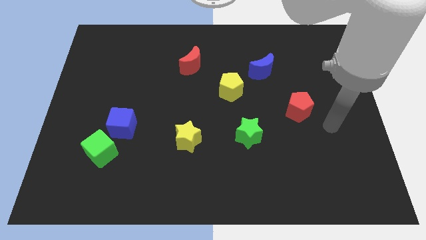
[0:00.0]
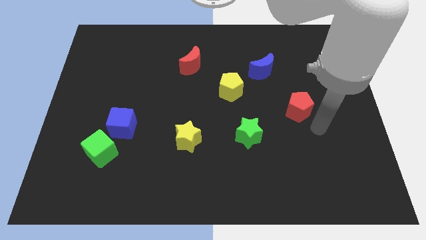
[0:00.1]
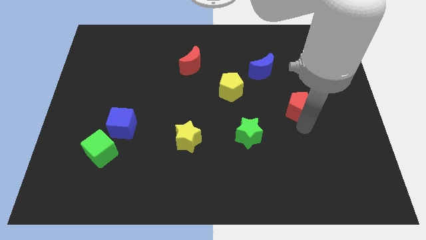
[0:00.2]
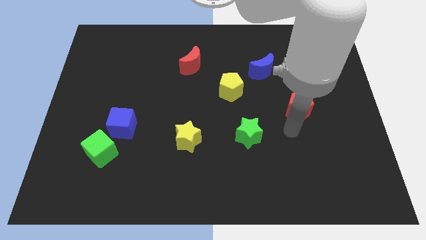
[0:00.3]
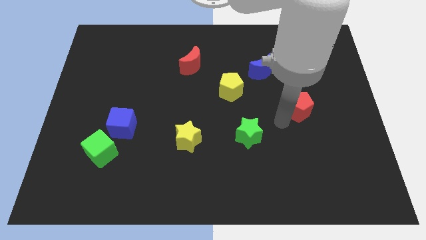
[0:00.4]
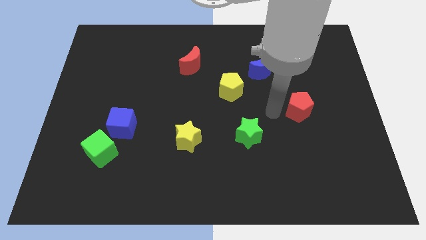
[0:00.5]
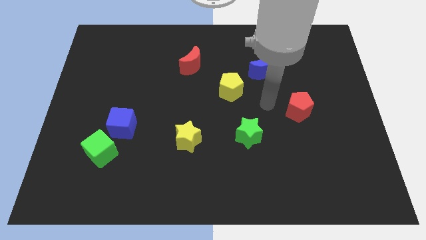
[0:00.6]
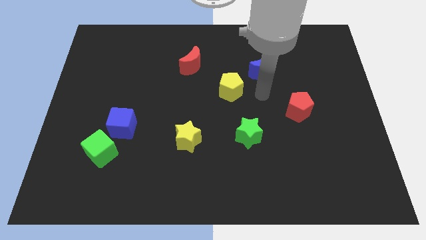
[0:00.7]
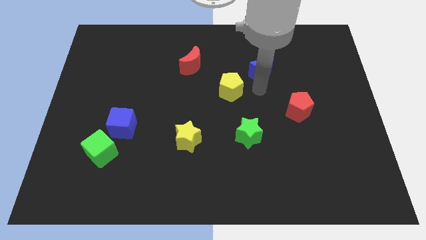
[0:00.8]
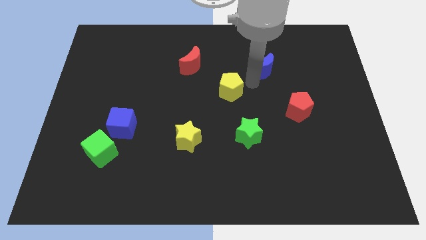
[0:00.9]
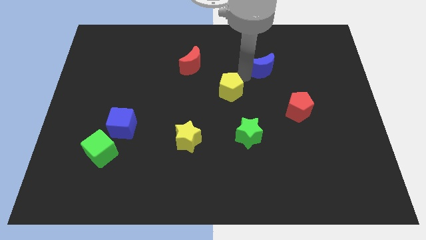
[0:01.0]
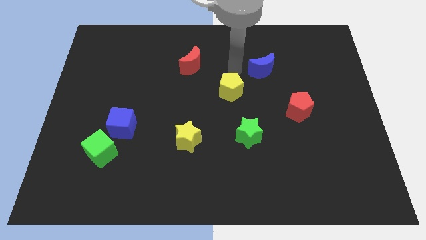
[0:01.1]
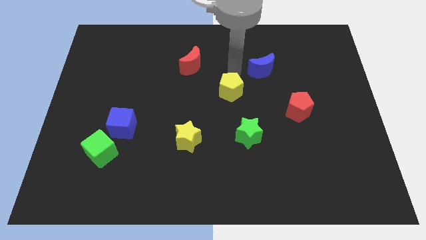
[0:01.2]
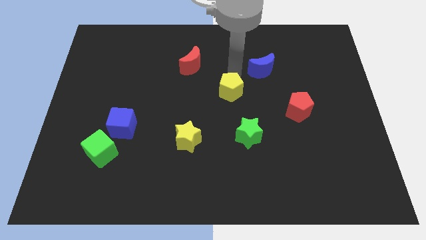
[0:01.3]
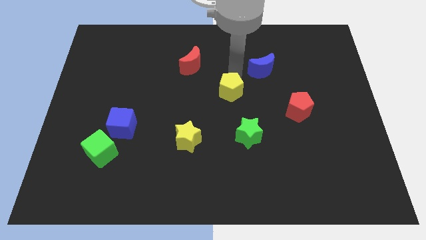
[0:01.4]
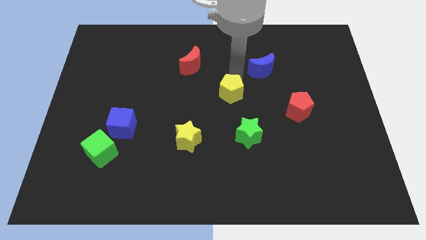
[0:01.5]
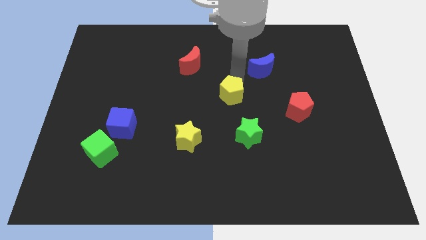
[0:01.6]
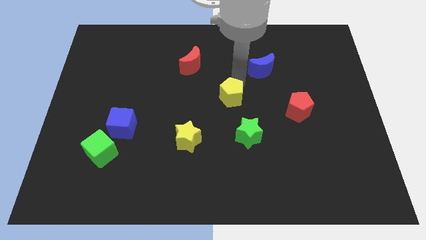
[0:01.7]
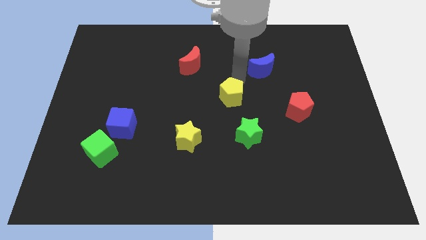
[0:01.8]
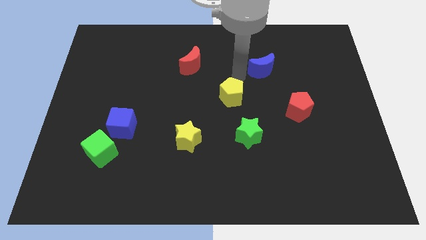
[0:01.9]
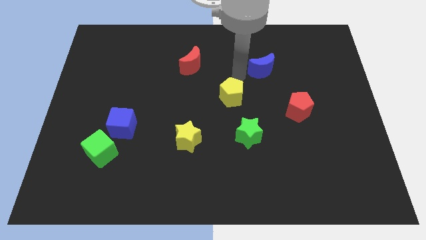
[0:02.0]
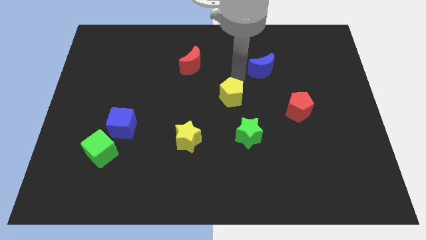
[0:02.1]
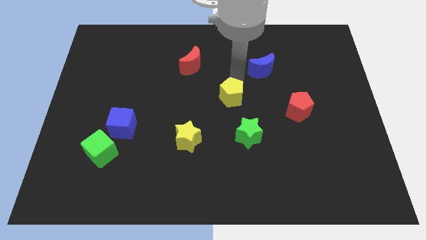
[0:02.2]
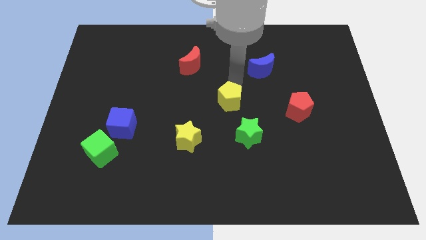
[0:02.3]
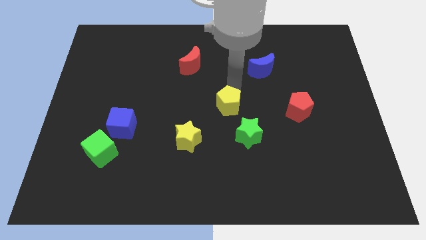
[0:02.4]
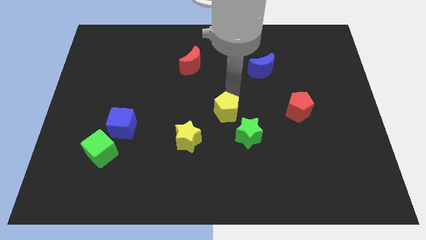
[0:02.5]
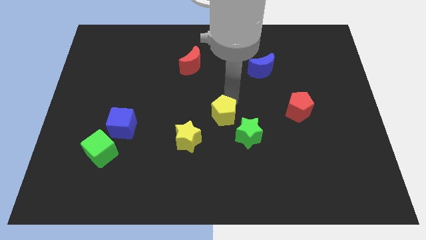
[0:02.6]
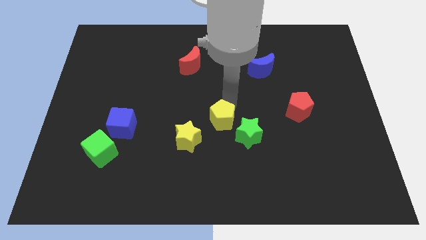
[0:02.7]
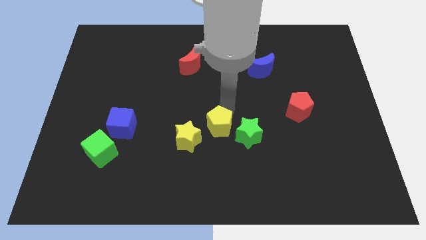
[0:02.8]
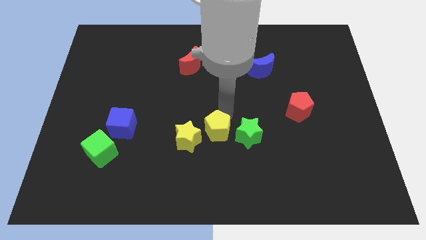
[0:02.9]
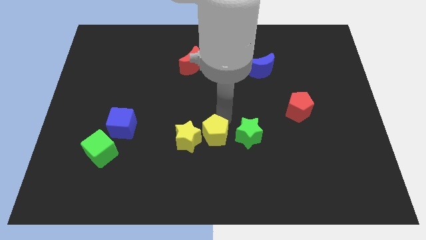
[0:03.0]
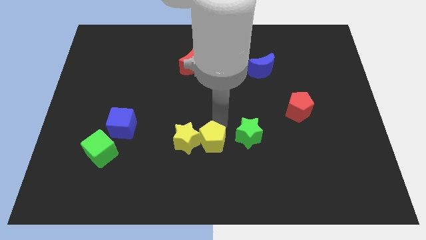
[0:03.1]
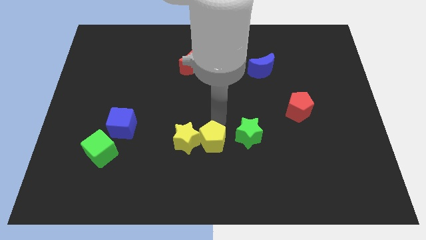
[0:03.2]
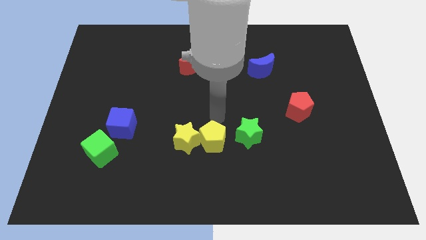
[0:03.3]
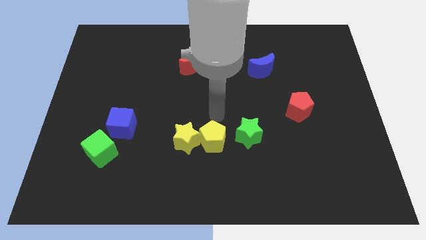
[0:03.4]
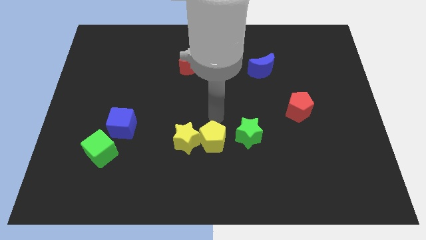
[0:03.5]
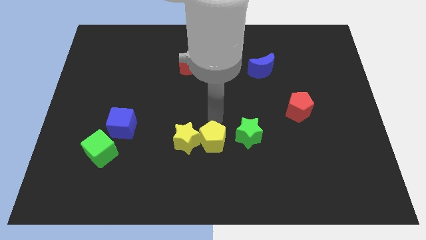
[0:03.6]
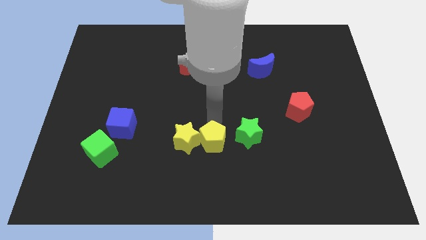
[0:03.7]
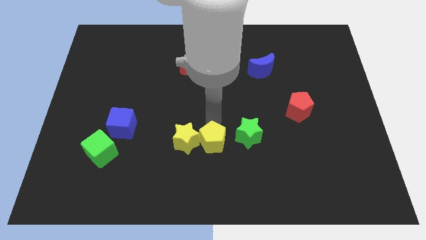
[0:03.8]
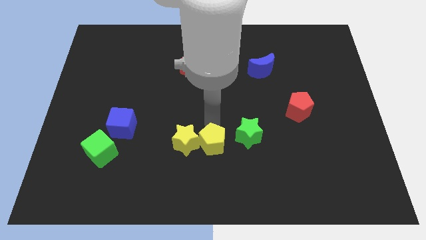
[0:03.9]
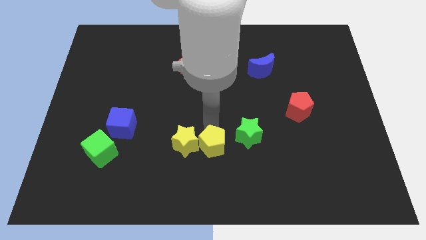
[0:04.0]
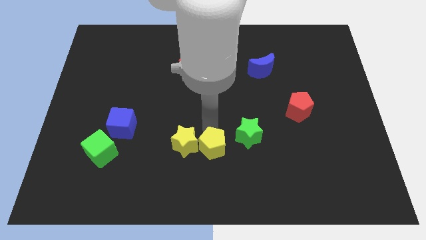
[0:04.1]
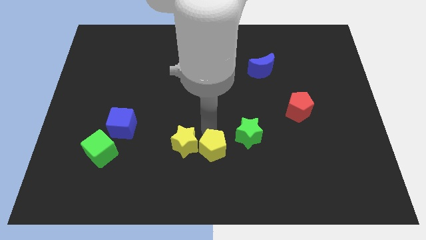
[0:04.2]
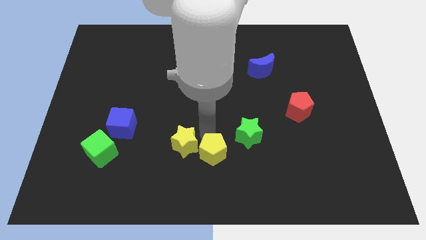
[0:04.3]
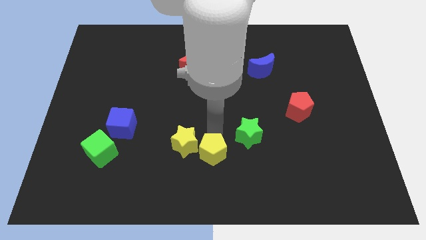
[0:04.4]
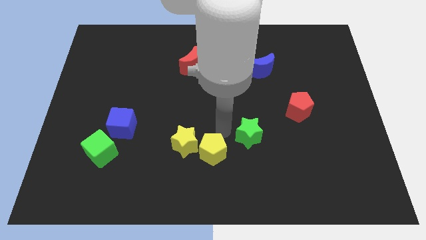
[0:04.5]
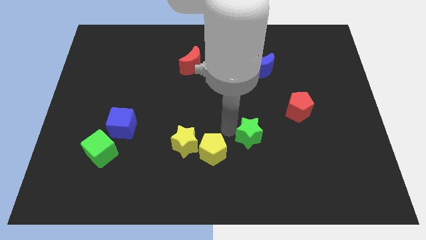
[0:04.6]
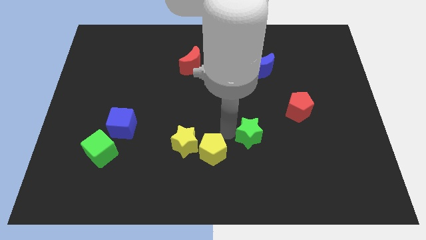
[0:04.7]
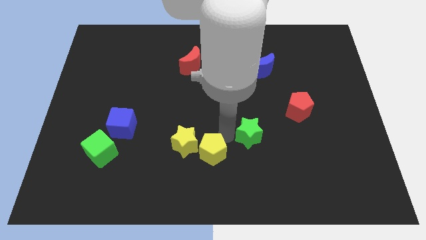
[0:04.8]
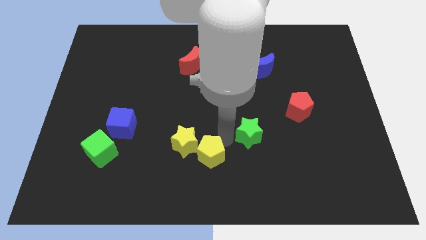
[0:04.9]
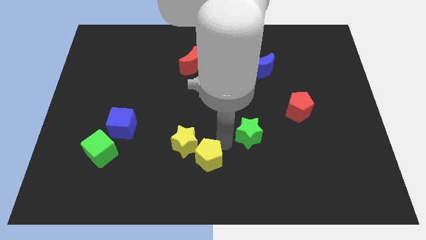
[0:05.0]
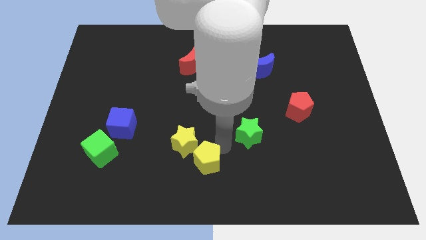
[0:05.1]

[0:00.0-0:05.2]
move the yellow pentagon to the bottom side of the yellow star

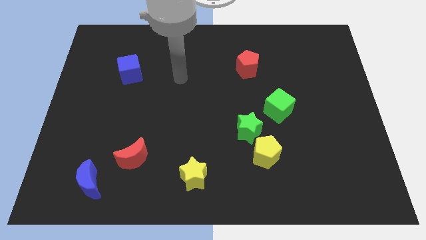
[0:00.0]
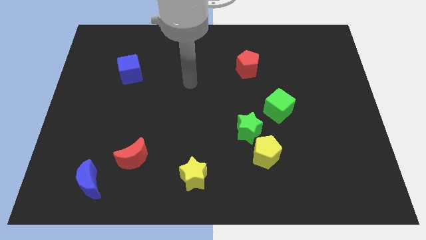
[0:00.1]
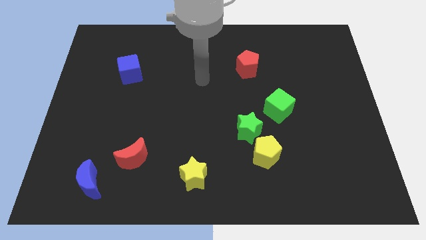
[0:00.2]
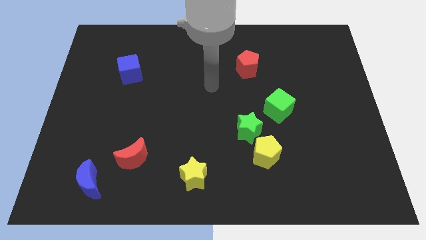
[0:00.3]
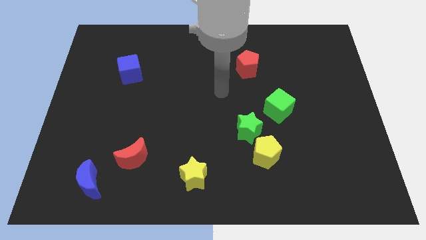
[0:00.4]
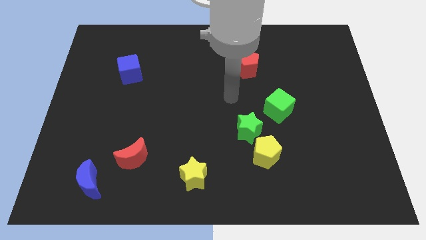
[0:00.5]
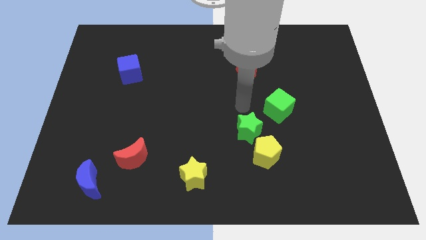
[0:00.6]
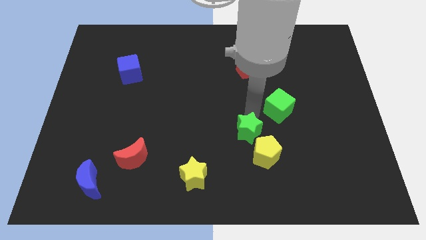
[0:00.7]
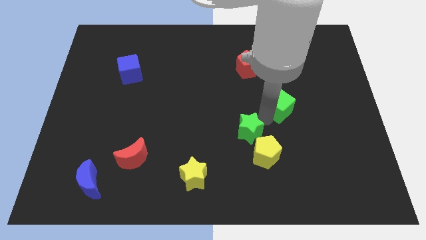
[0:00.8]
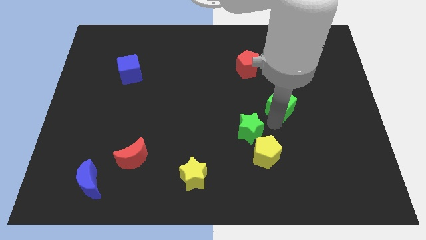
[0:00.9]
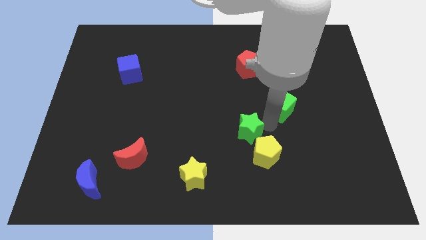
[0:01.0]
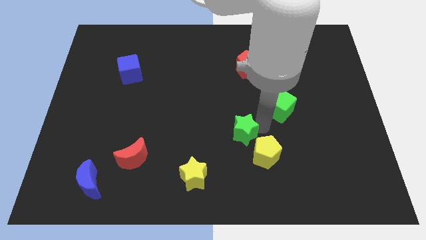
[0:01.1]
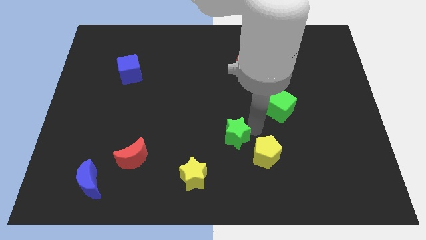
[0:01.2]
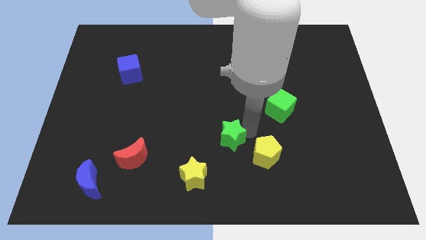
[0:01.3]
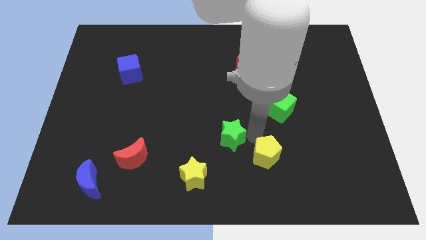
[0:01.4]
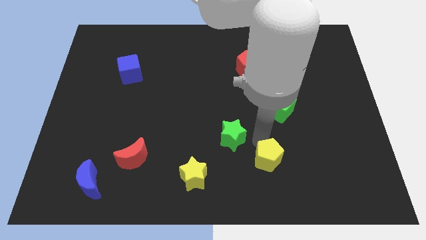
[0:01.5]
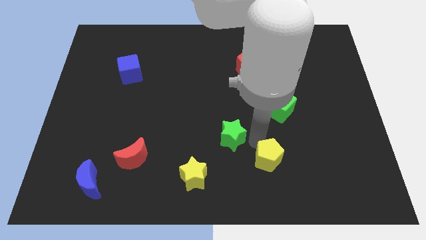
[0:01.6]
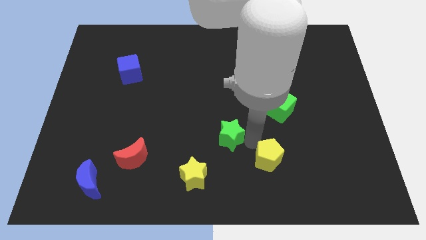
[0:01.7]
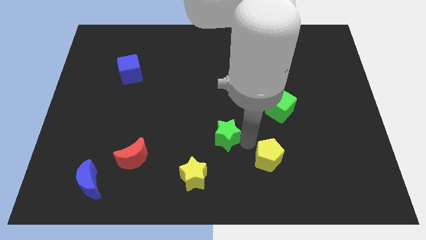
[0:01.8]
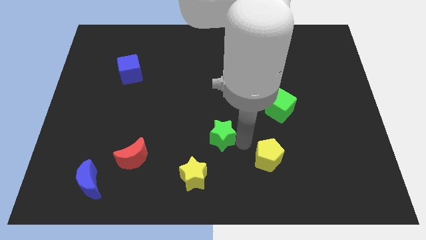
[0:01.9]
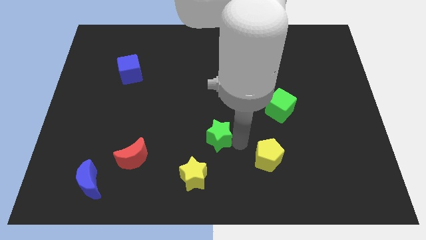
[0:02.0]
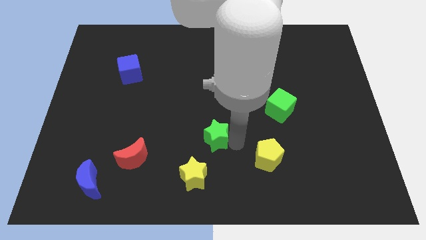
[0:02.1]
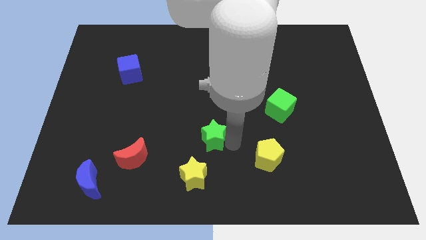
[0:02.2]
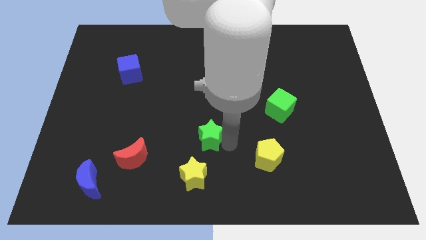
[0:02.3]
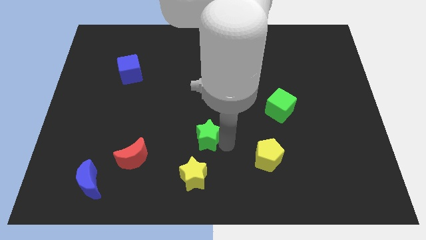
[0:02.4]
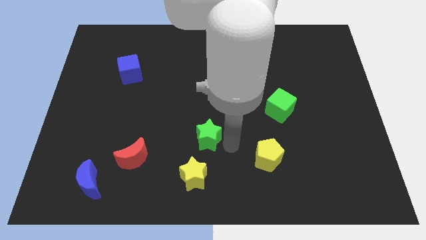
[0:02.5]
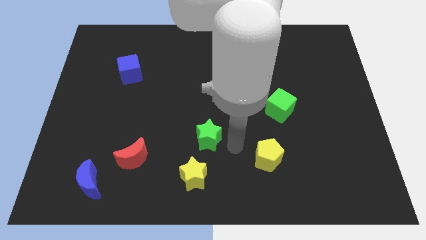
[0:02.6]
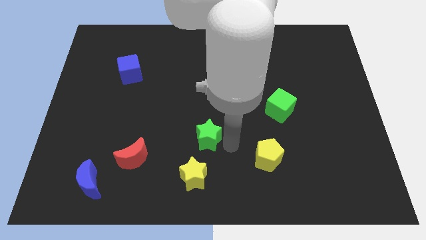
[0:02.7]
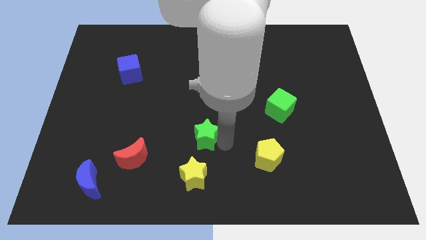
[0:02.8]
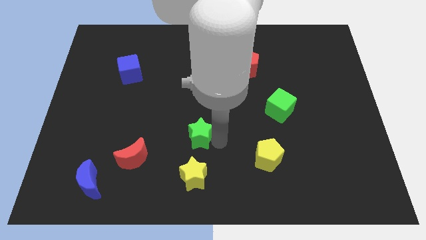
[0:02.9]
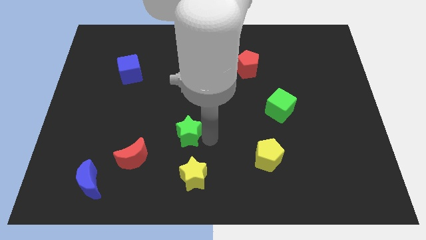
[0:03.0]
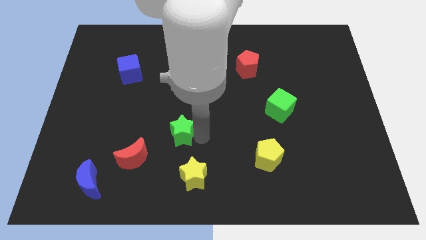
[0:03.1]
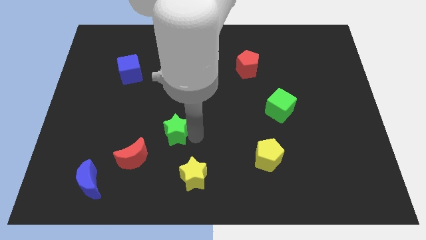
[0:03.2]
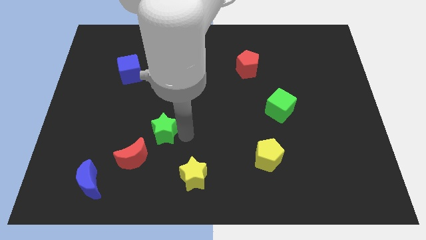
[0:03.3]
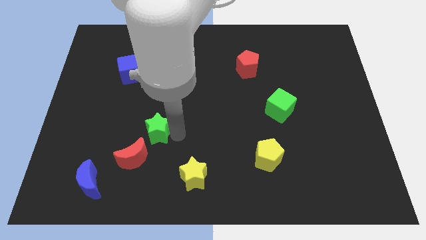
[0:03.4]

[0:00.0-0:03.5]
move the green star above the red moon
